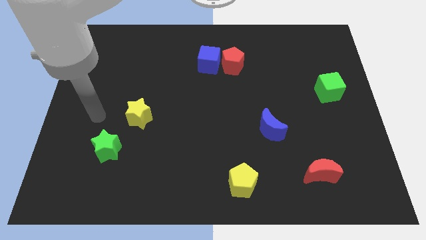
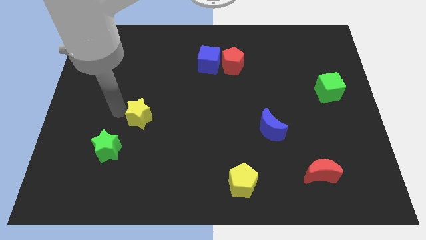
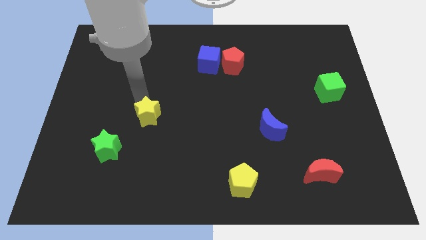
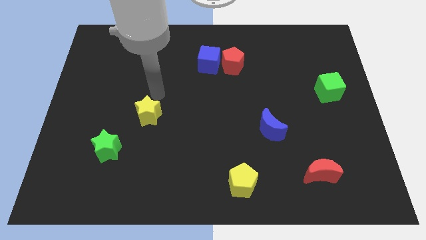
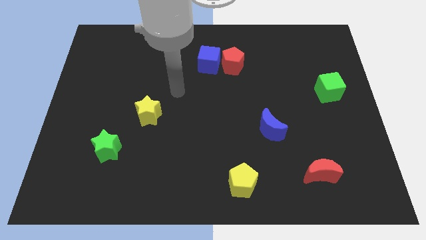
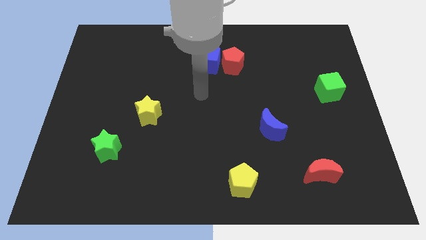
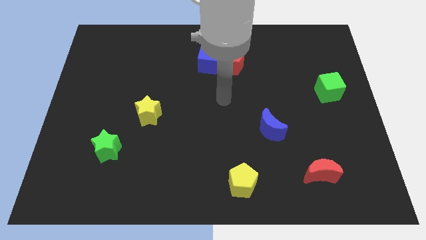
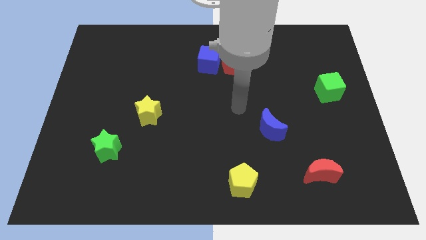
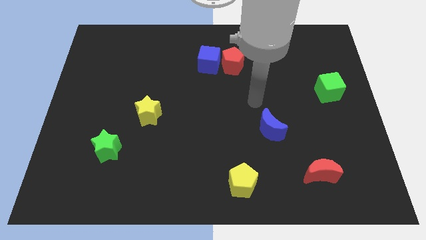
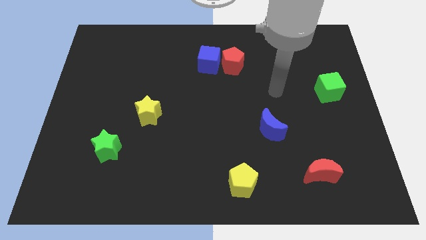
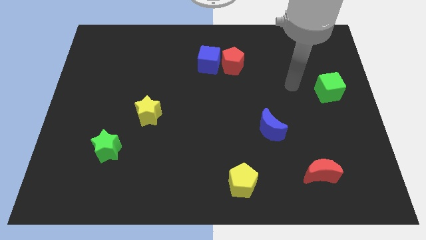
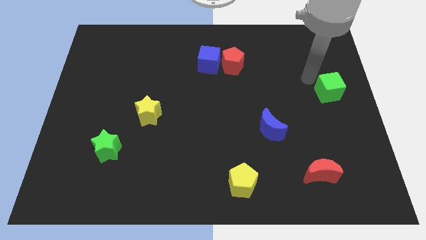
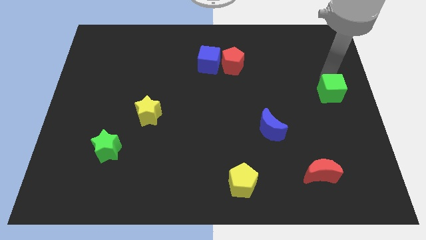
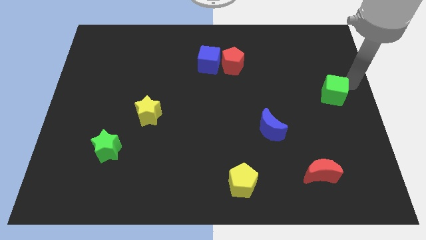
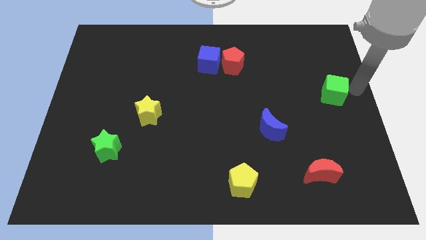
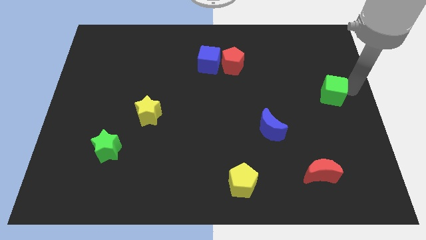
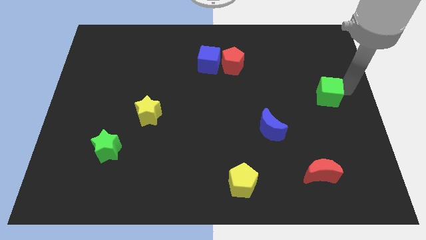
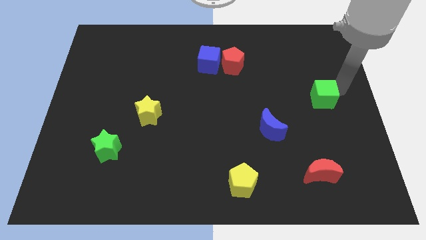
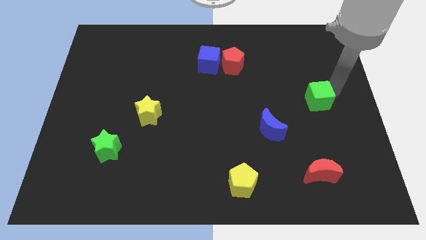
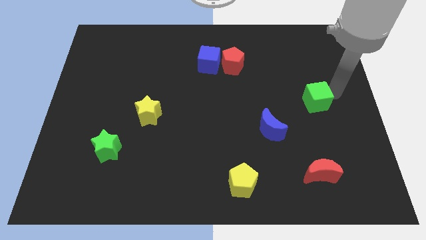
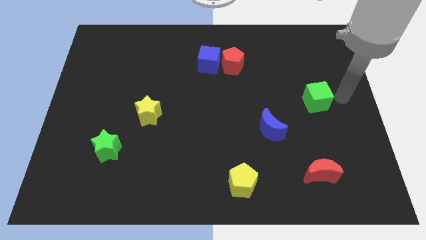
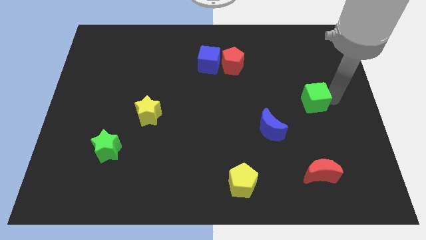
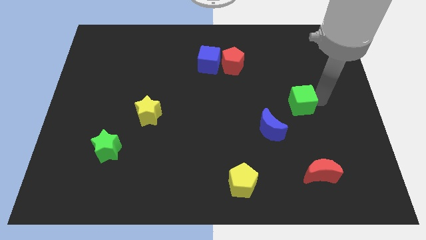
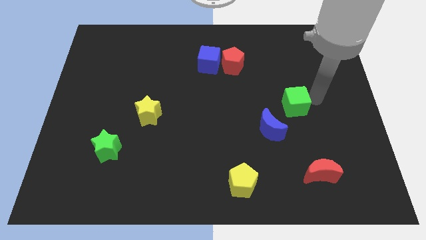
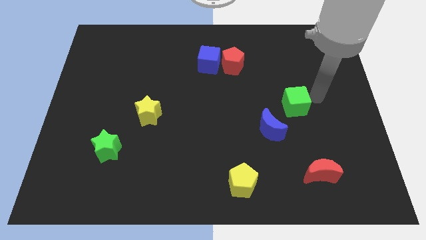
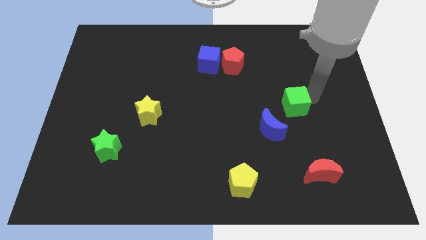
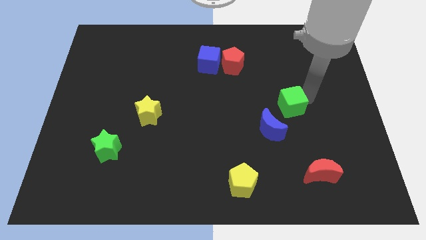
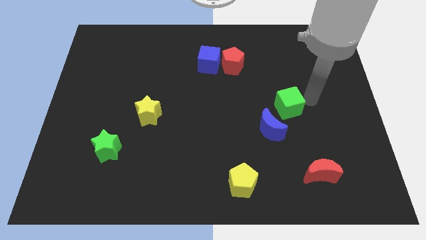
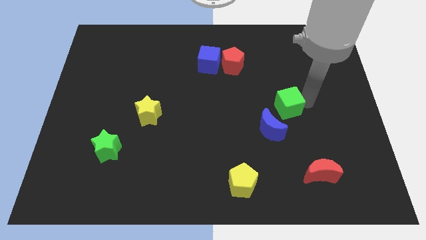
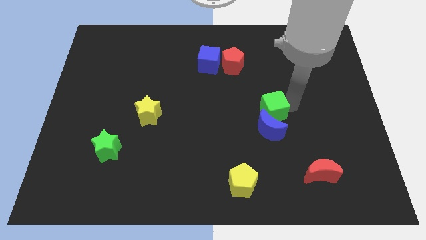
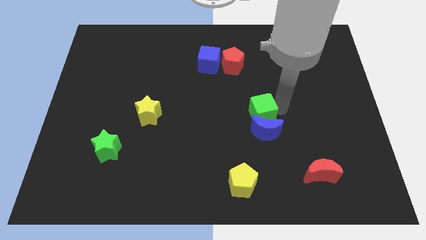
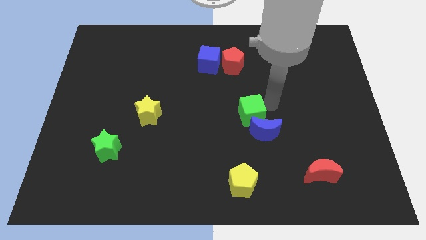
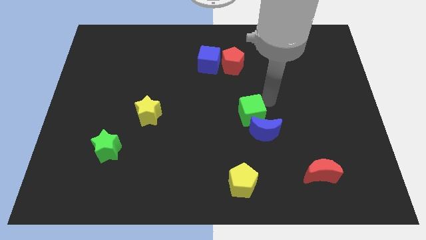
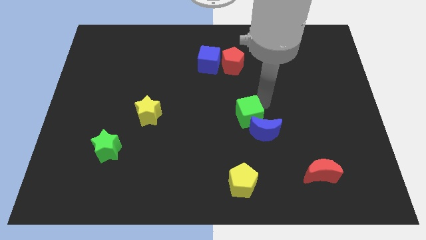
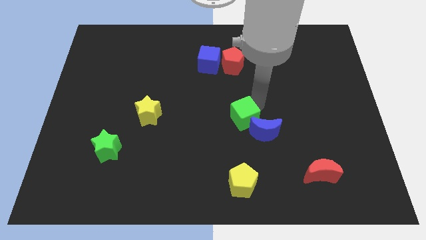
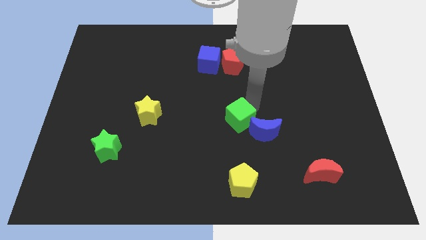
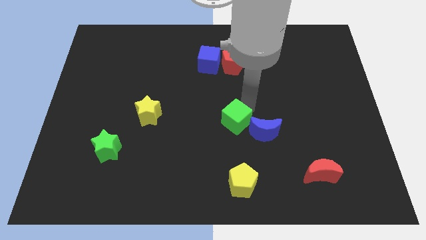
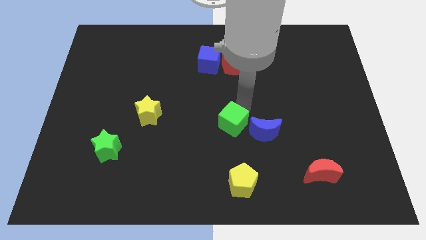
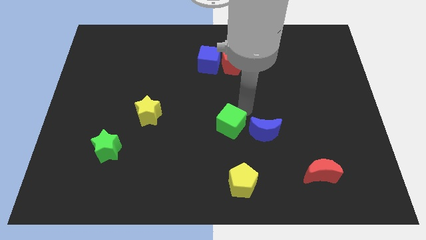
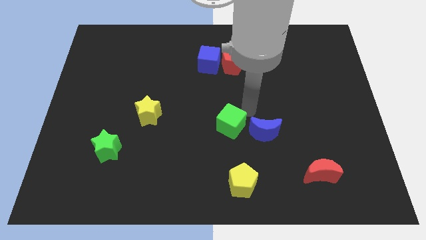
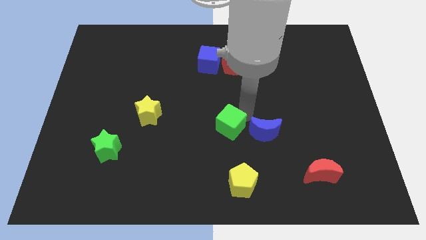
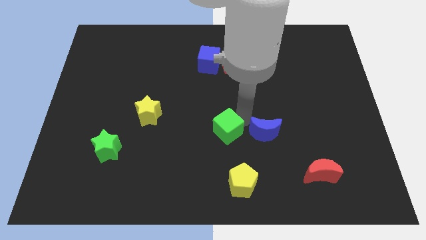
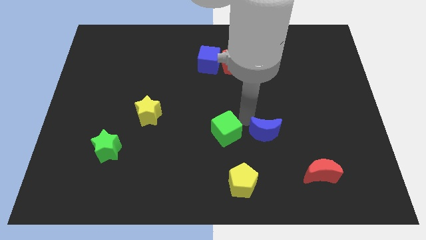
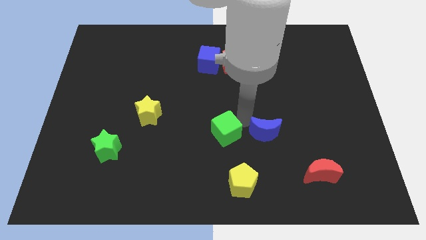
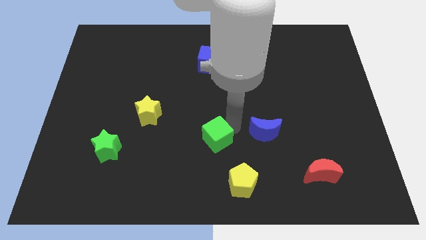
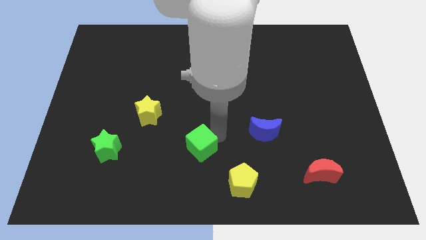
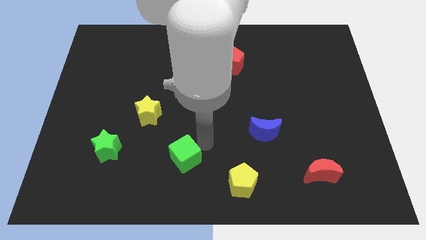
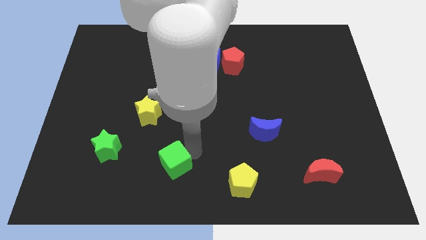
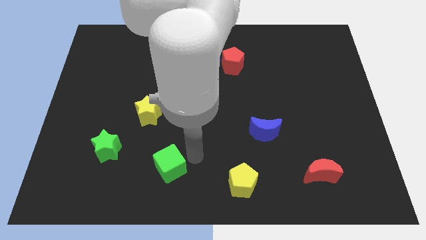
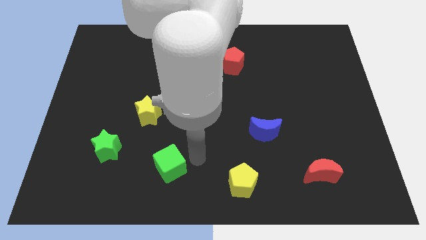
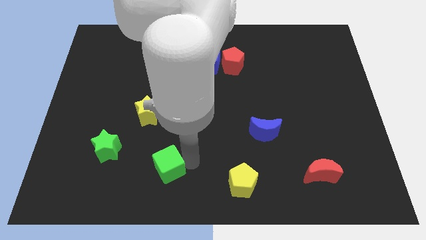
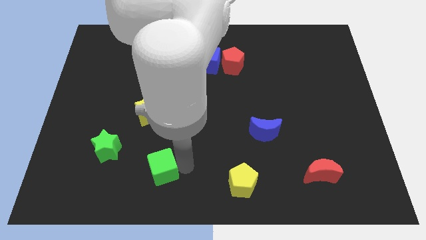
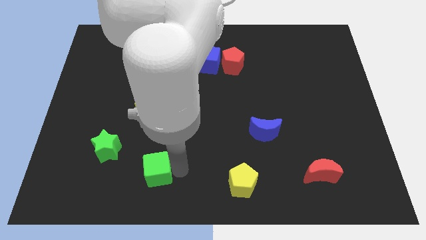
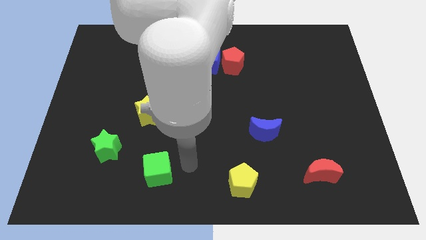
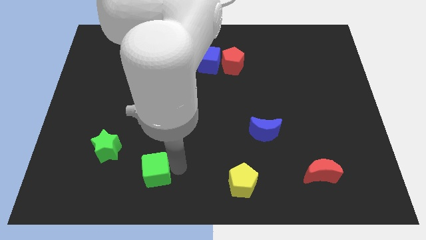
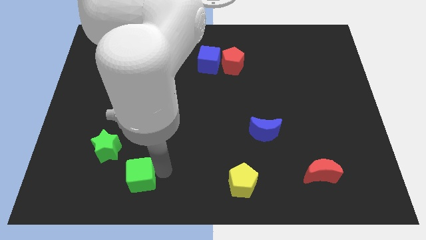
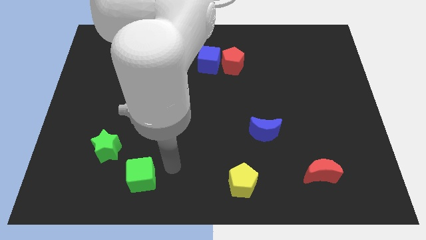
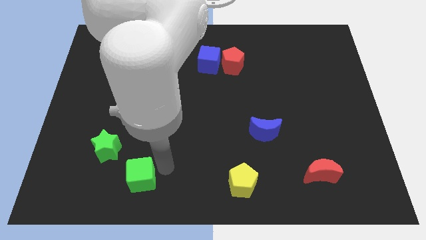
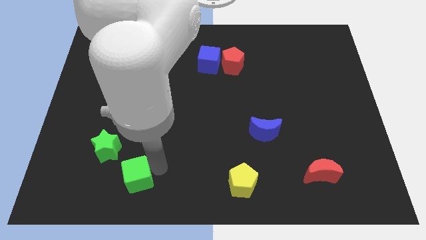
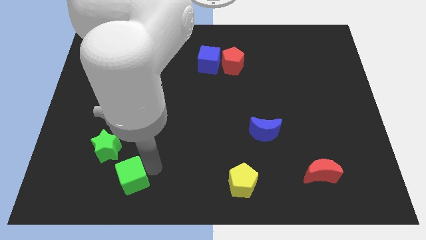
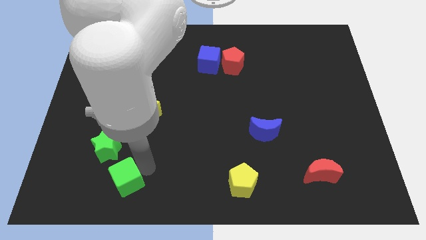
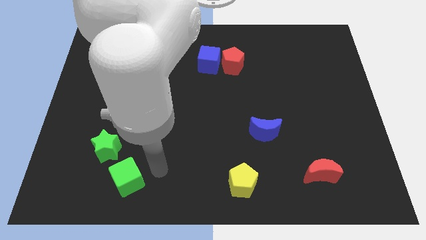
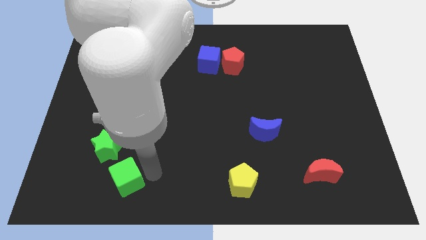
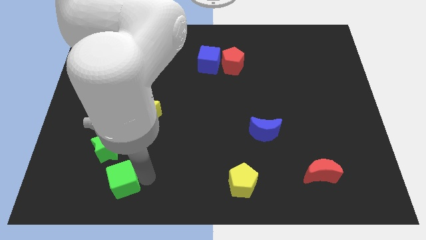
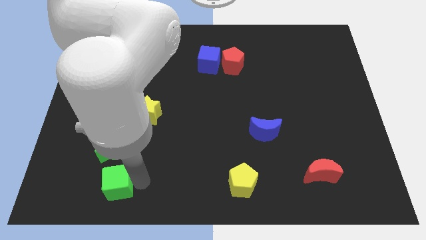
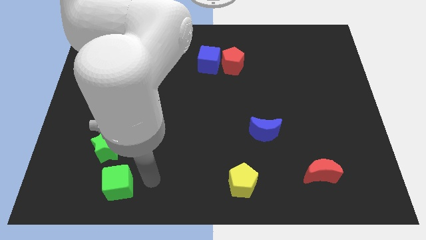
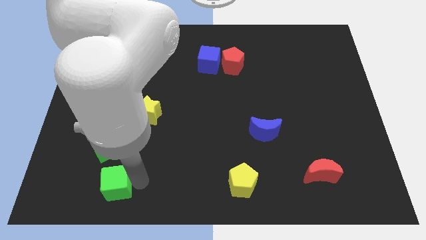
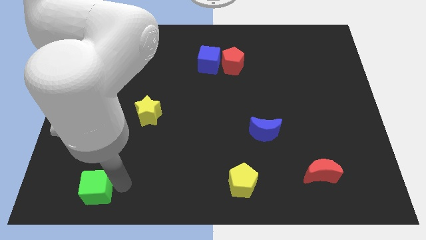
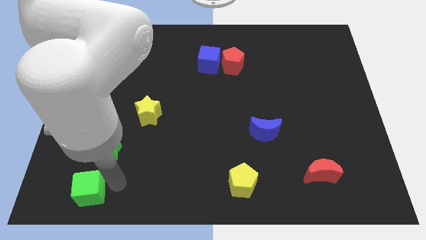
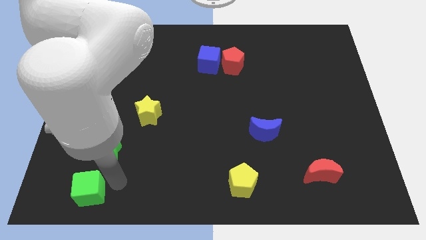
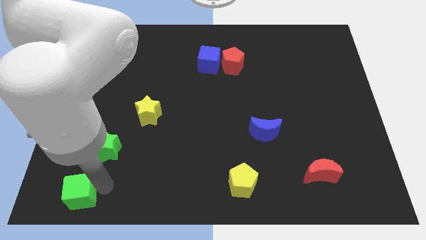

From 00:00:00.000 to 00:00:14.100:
move the green cube to the bottom left corner
